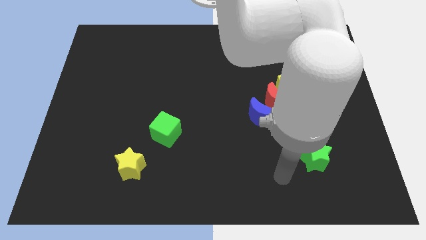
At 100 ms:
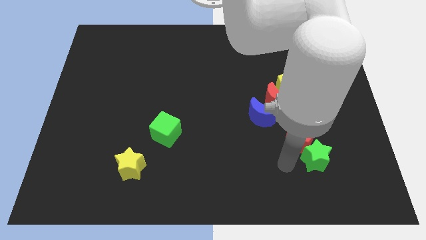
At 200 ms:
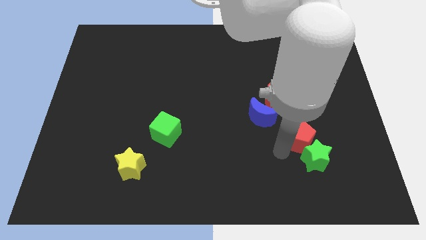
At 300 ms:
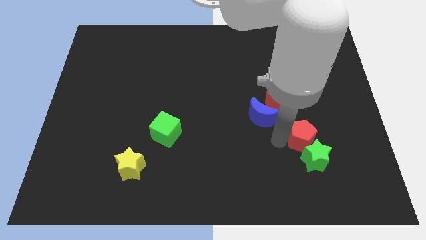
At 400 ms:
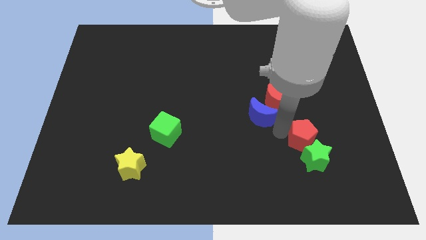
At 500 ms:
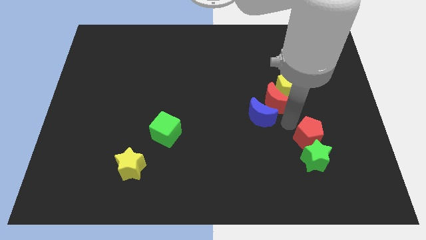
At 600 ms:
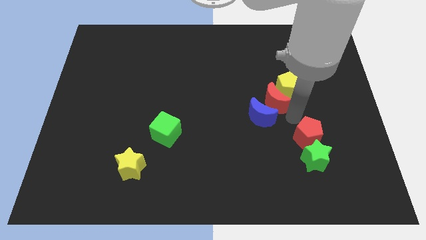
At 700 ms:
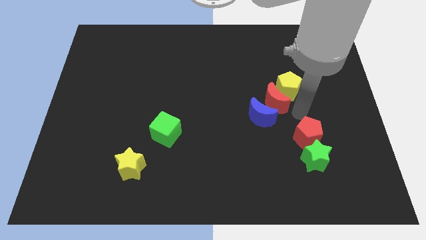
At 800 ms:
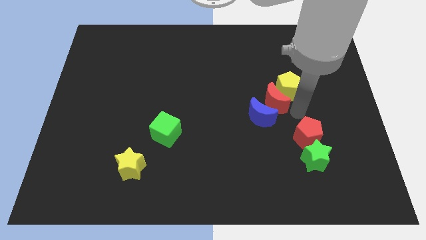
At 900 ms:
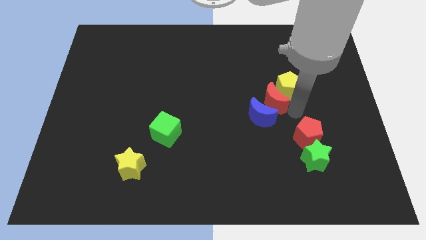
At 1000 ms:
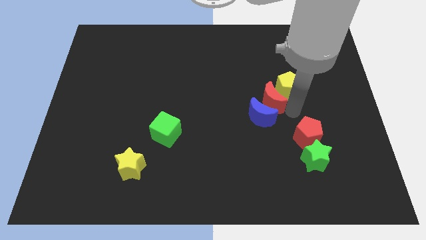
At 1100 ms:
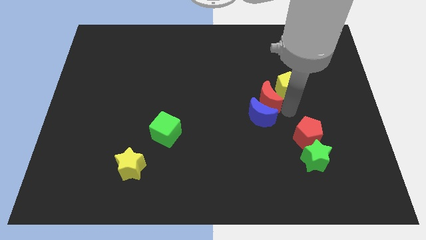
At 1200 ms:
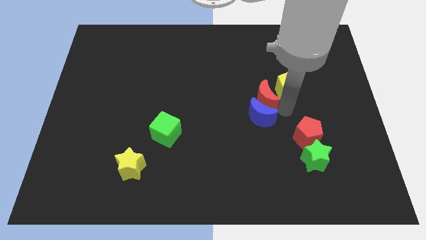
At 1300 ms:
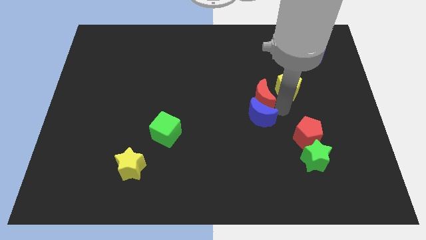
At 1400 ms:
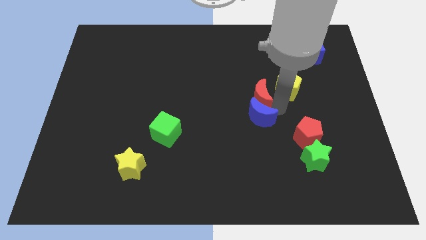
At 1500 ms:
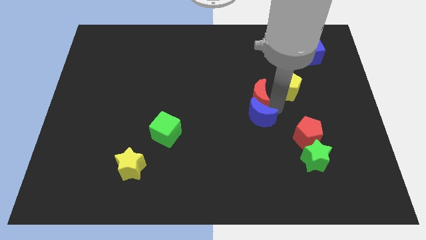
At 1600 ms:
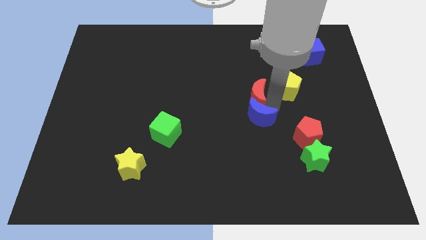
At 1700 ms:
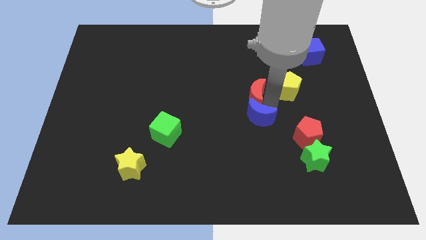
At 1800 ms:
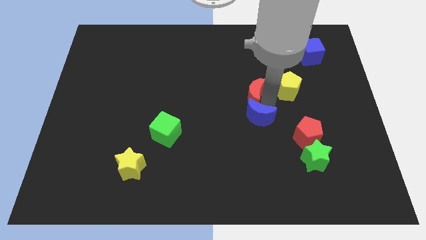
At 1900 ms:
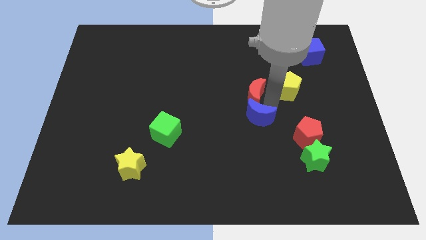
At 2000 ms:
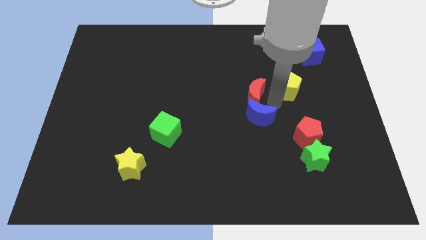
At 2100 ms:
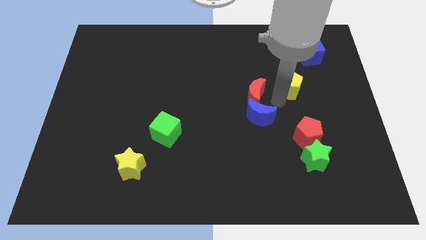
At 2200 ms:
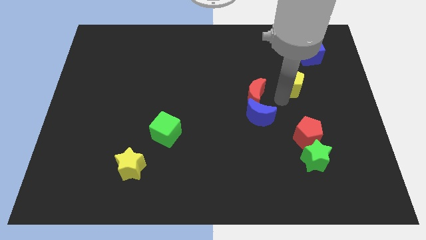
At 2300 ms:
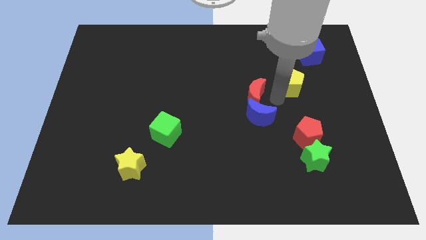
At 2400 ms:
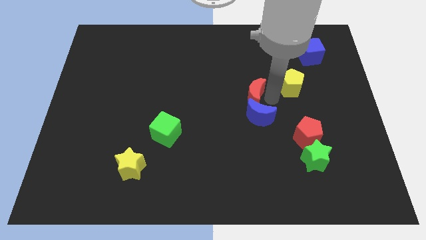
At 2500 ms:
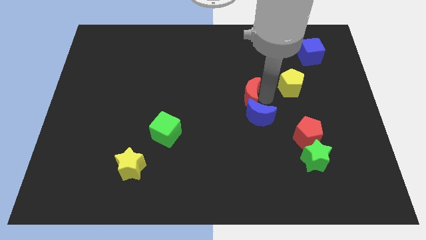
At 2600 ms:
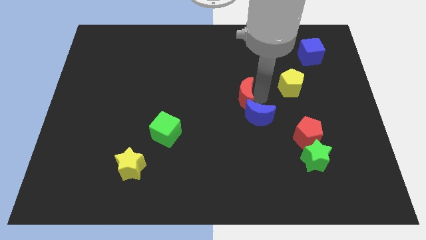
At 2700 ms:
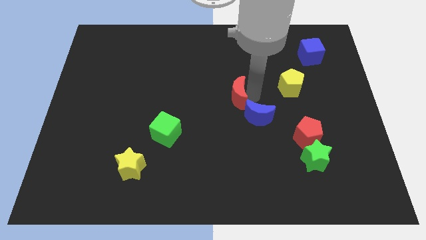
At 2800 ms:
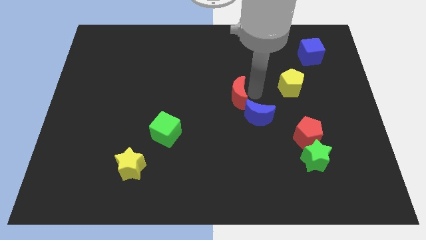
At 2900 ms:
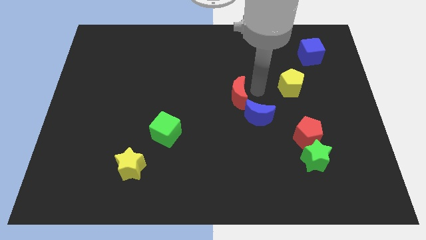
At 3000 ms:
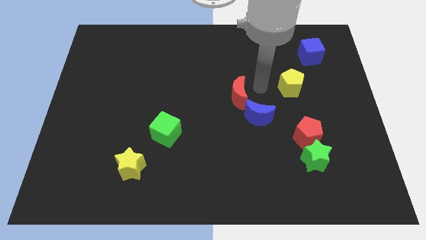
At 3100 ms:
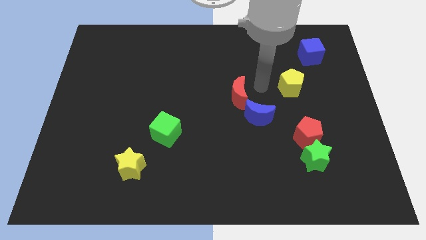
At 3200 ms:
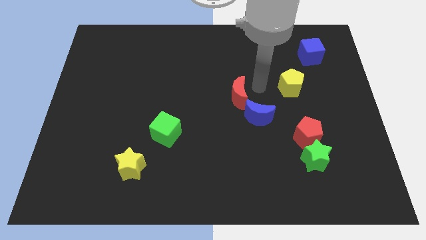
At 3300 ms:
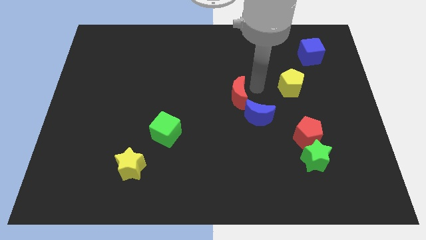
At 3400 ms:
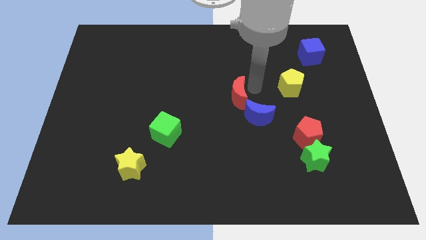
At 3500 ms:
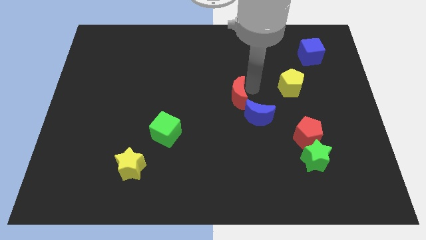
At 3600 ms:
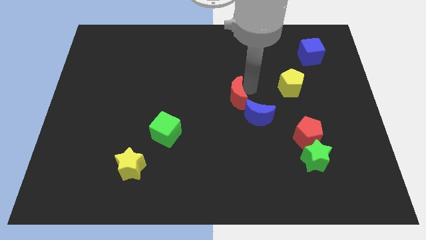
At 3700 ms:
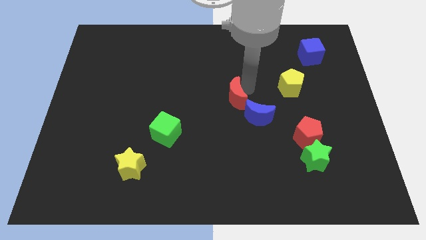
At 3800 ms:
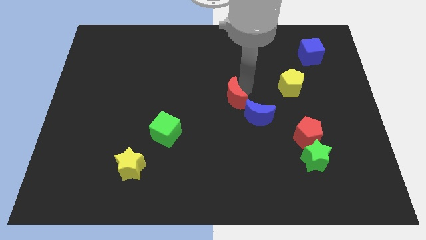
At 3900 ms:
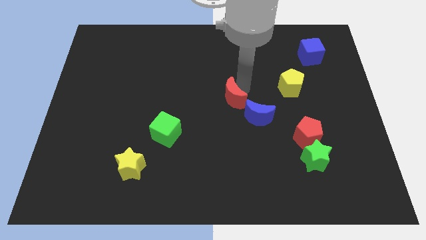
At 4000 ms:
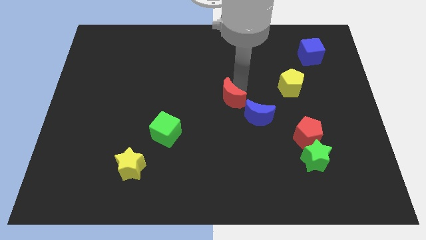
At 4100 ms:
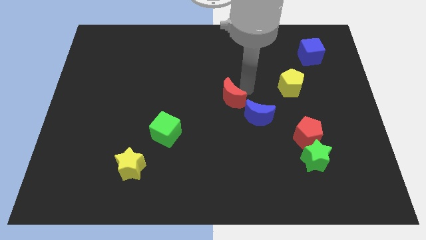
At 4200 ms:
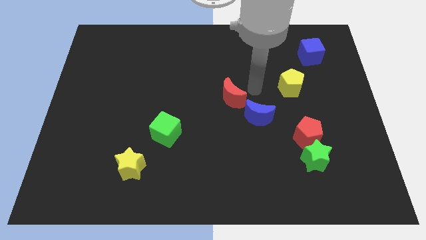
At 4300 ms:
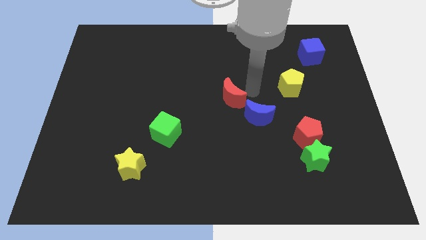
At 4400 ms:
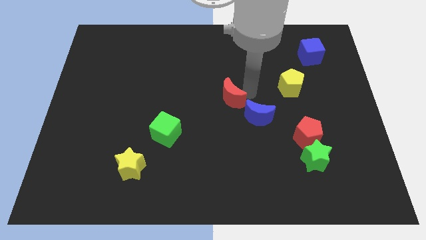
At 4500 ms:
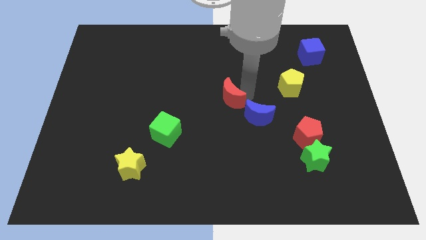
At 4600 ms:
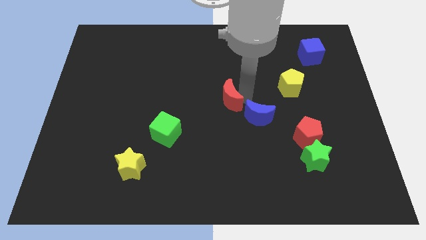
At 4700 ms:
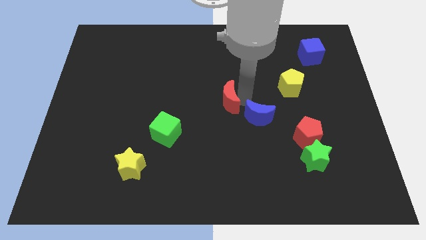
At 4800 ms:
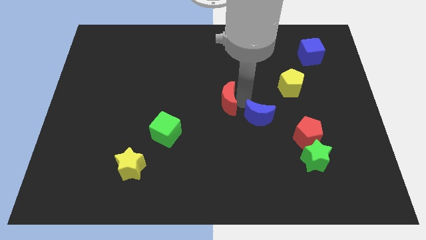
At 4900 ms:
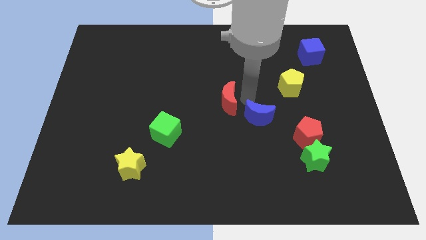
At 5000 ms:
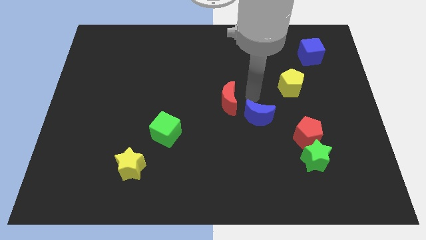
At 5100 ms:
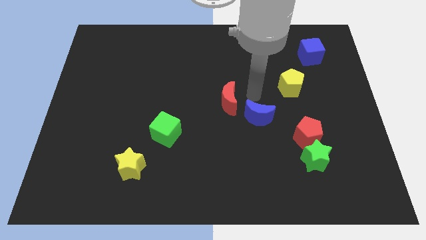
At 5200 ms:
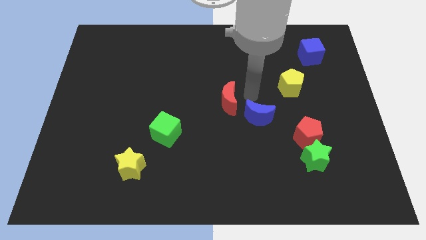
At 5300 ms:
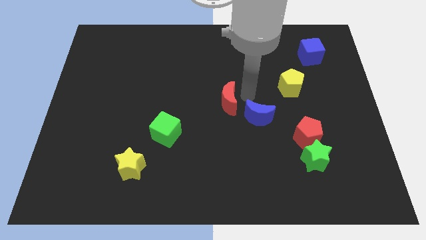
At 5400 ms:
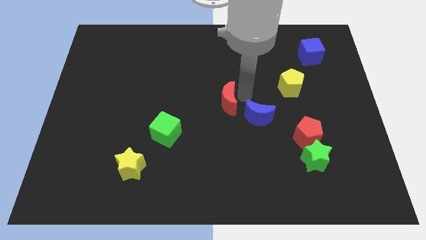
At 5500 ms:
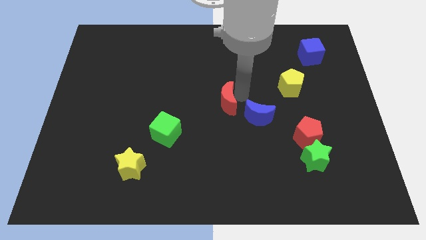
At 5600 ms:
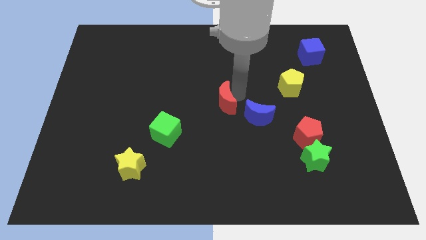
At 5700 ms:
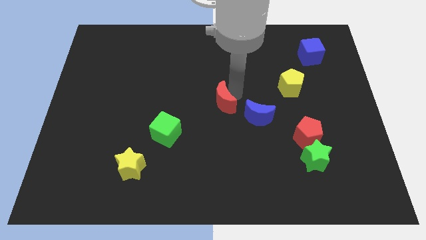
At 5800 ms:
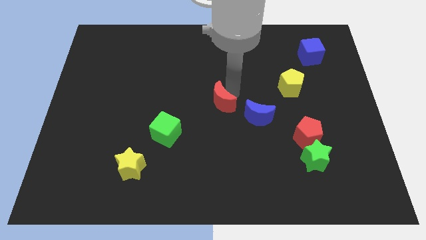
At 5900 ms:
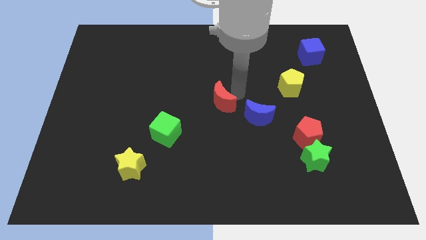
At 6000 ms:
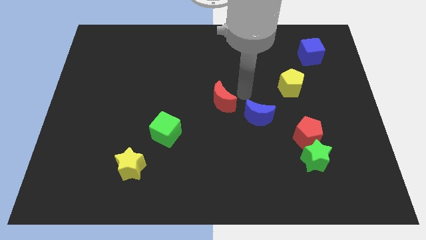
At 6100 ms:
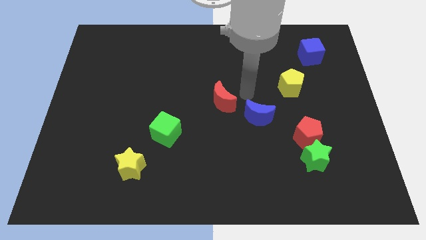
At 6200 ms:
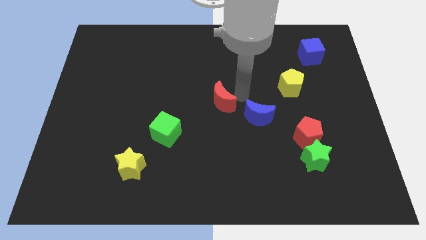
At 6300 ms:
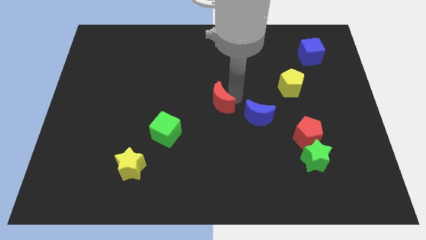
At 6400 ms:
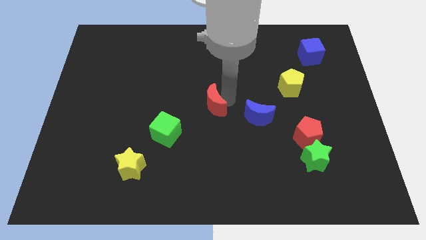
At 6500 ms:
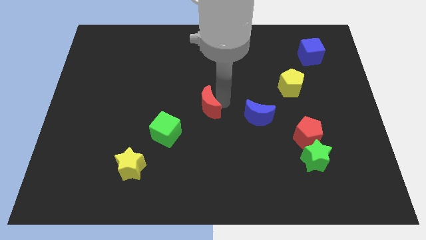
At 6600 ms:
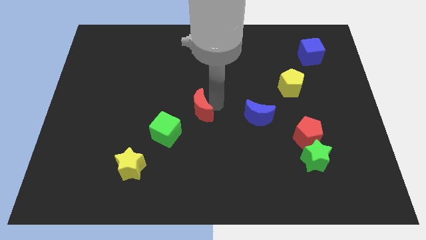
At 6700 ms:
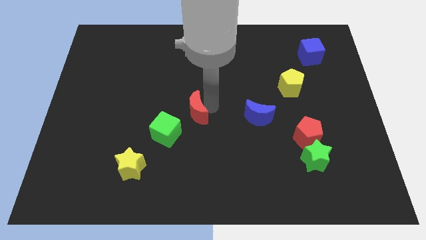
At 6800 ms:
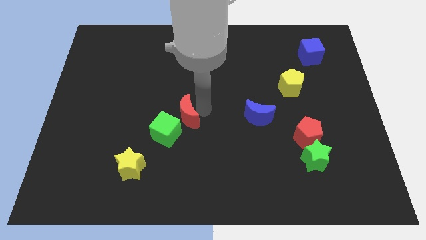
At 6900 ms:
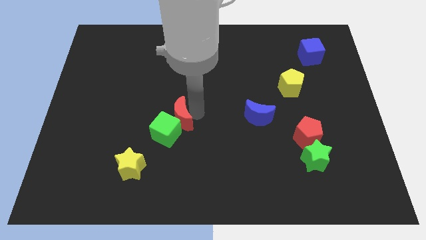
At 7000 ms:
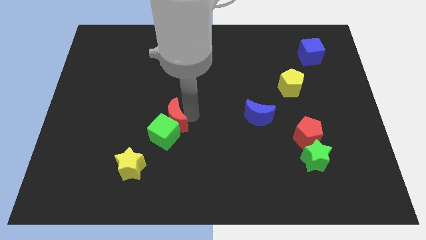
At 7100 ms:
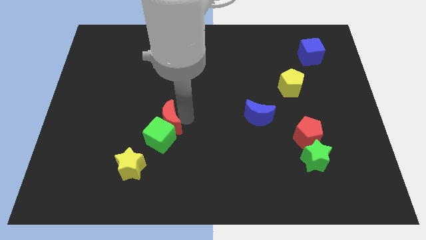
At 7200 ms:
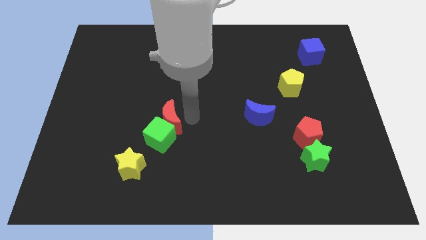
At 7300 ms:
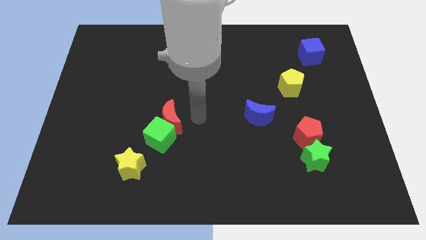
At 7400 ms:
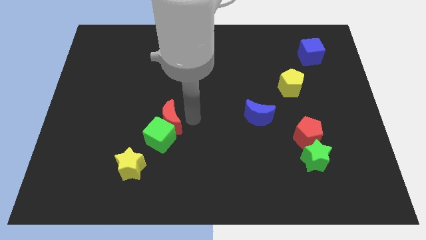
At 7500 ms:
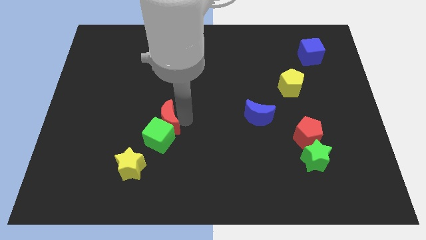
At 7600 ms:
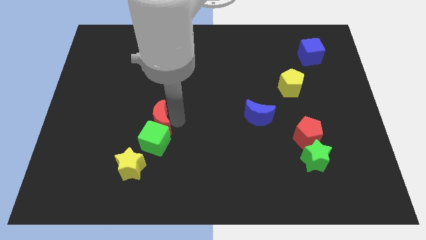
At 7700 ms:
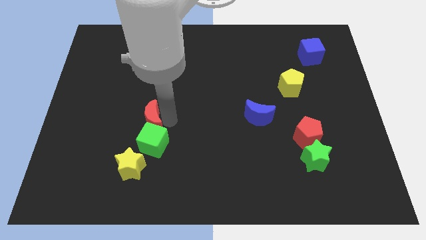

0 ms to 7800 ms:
put the red moon to the top side of the yellow star
